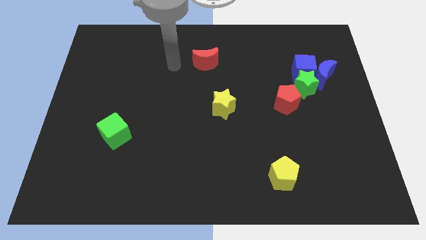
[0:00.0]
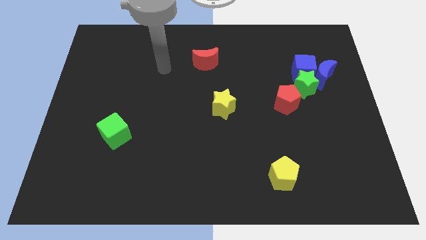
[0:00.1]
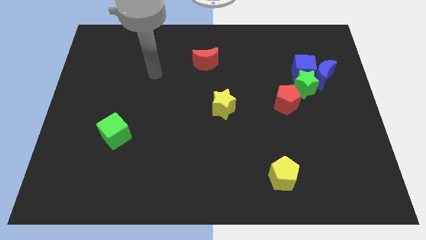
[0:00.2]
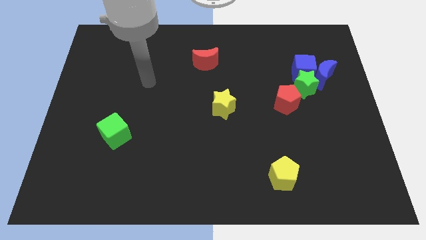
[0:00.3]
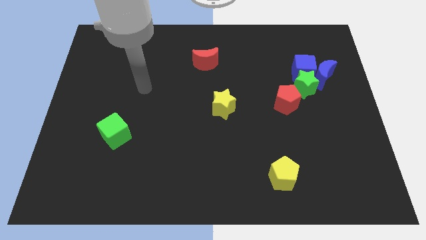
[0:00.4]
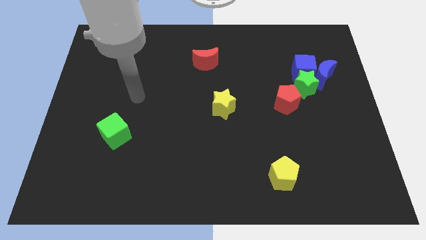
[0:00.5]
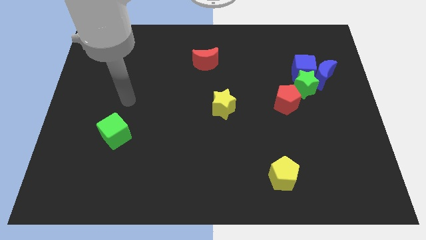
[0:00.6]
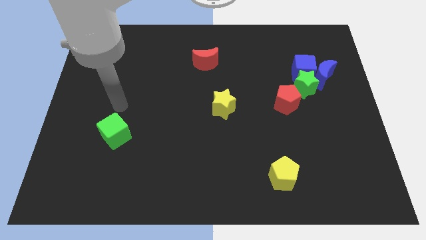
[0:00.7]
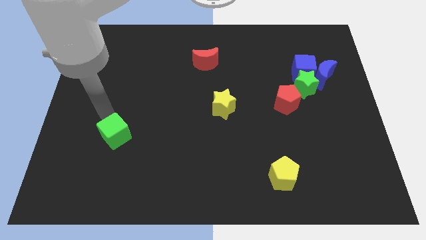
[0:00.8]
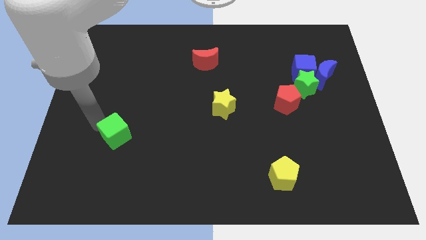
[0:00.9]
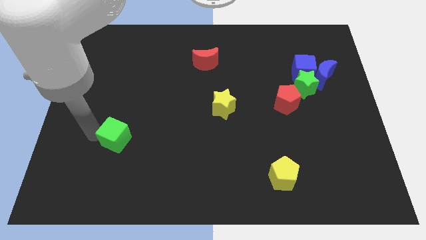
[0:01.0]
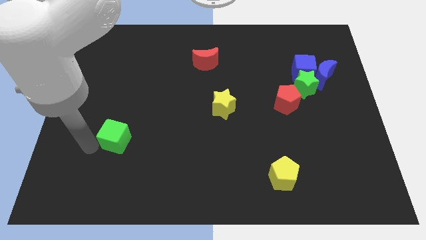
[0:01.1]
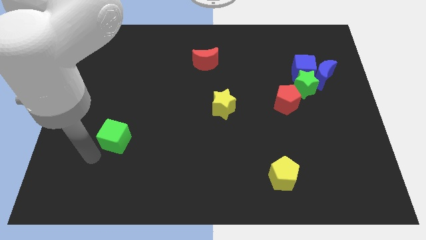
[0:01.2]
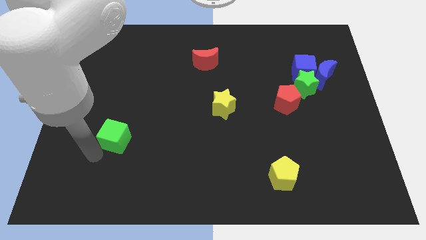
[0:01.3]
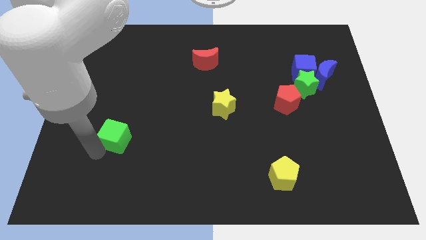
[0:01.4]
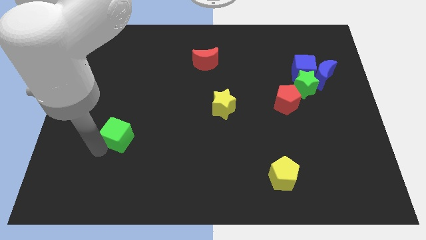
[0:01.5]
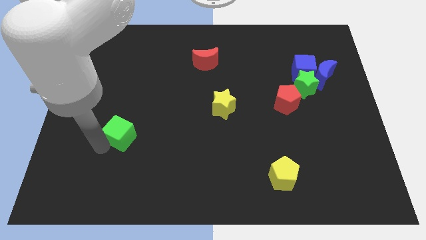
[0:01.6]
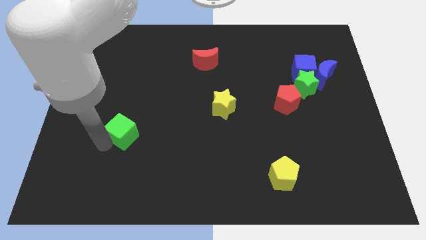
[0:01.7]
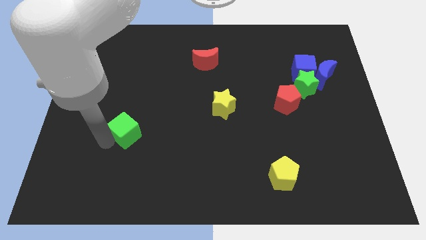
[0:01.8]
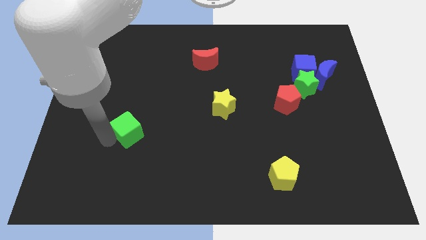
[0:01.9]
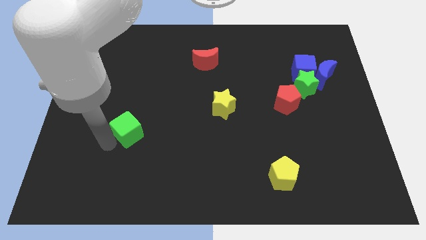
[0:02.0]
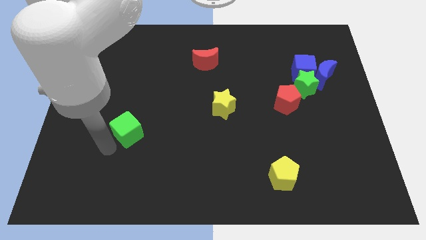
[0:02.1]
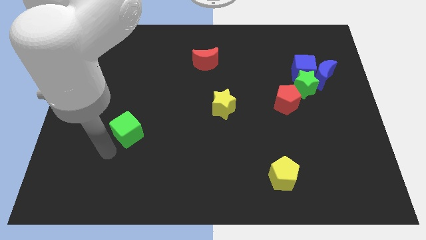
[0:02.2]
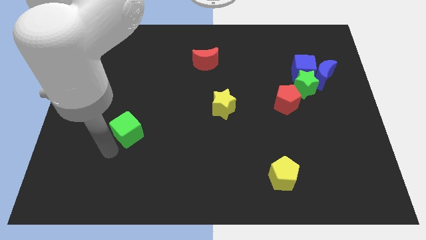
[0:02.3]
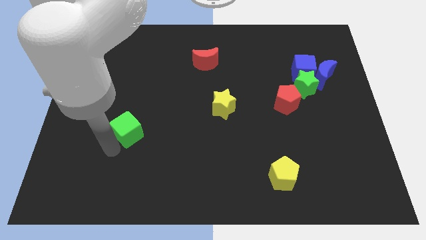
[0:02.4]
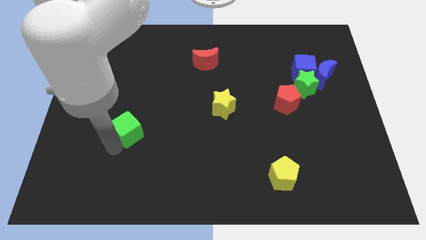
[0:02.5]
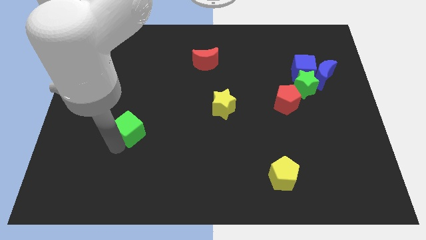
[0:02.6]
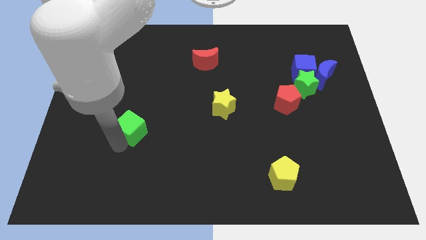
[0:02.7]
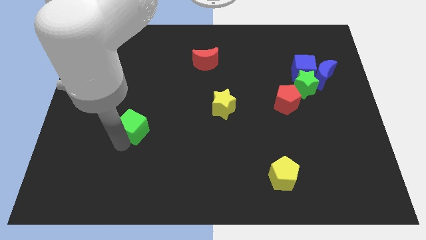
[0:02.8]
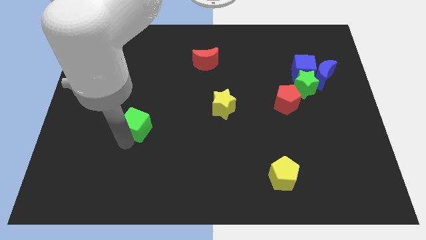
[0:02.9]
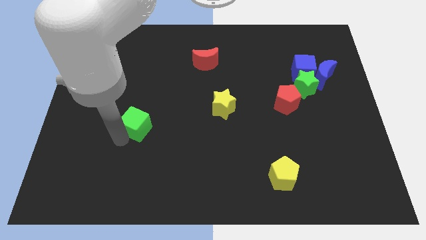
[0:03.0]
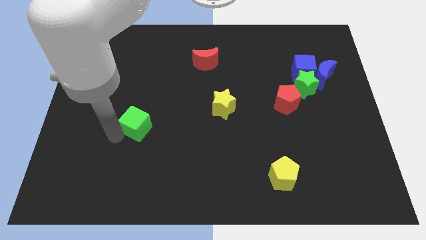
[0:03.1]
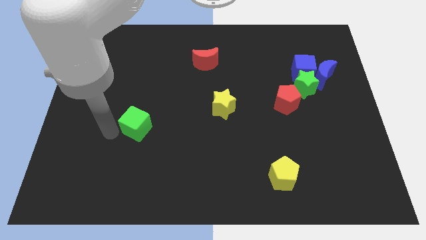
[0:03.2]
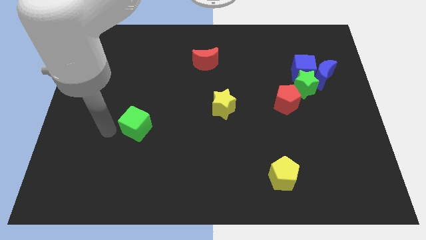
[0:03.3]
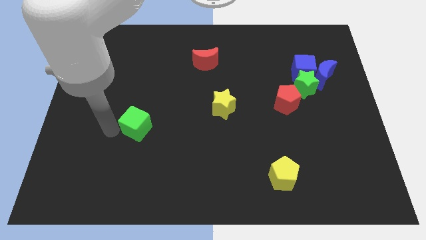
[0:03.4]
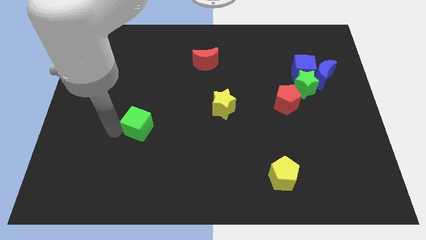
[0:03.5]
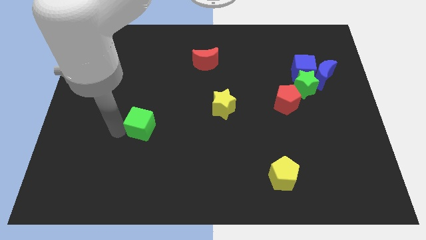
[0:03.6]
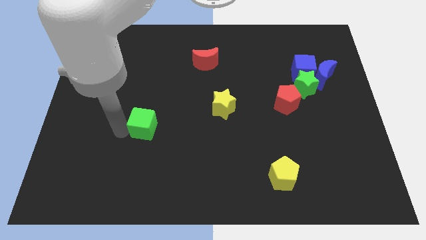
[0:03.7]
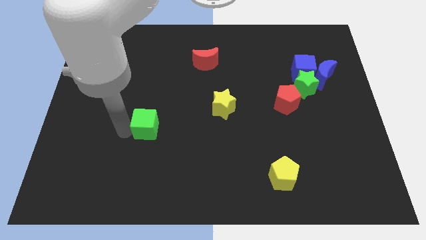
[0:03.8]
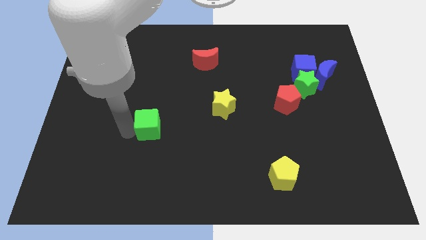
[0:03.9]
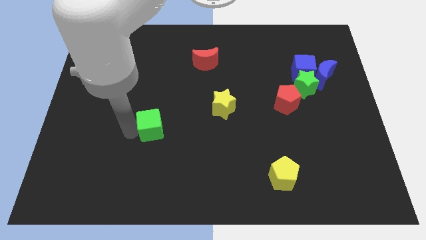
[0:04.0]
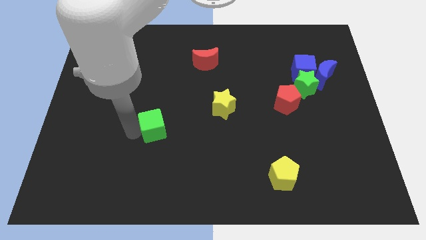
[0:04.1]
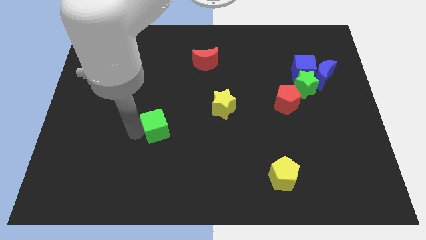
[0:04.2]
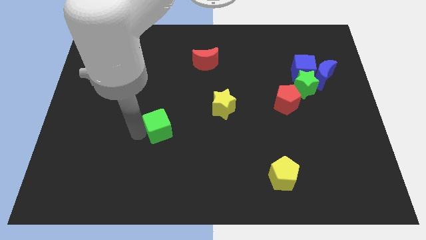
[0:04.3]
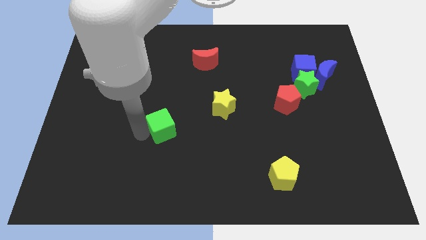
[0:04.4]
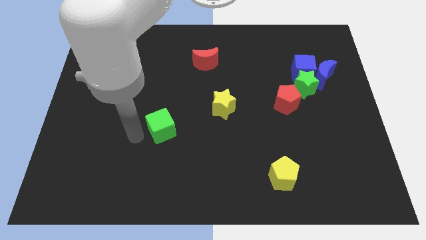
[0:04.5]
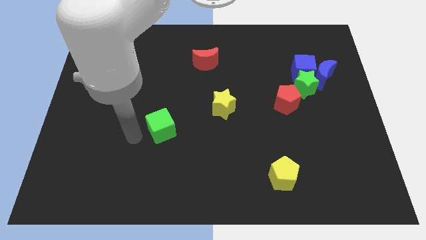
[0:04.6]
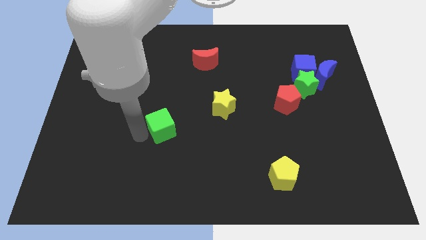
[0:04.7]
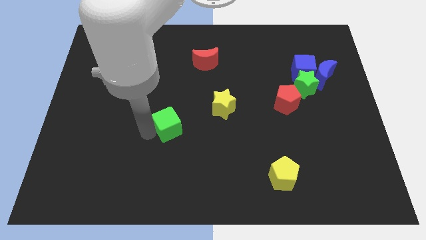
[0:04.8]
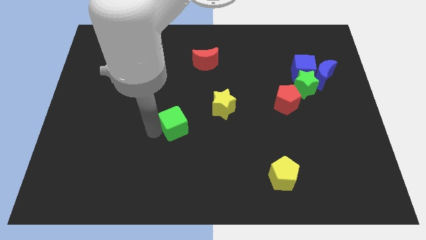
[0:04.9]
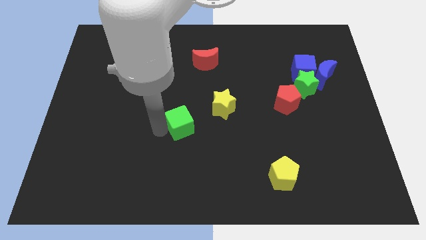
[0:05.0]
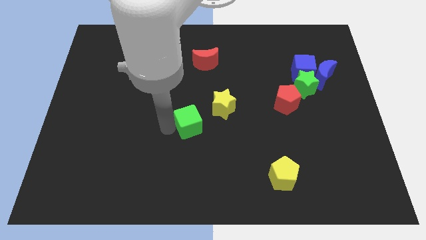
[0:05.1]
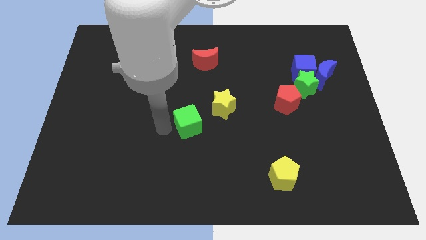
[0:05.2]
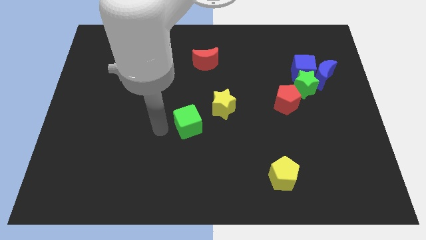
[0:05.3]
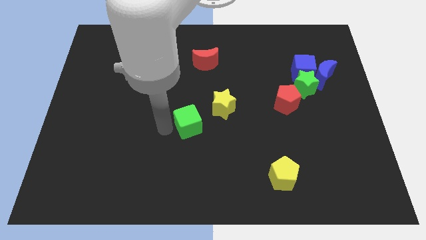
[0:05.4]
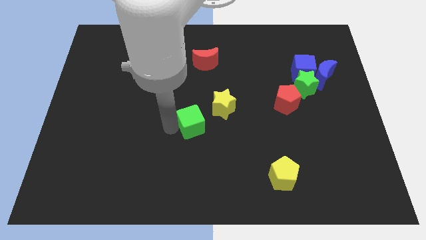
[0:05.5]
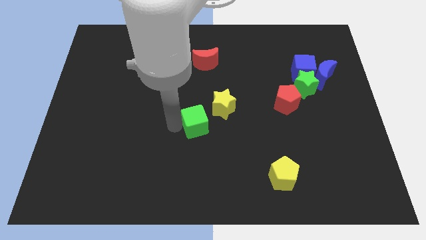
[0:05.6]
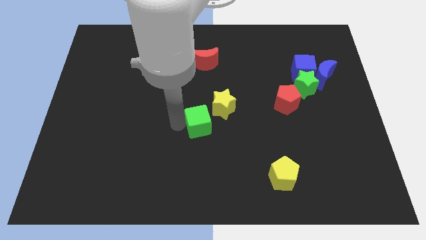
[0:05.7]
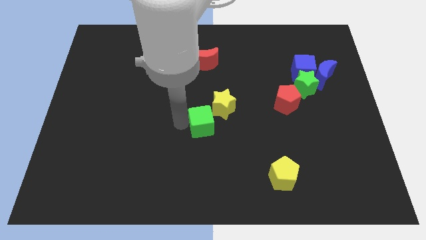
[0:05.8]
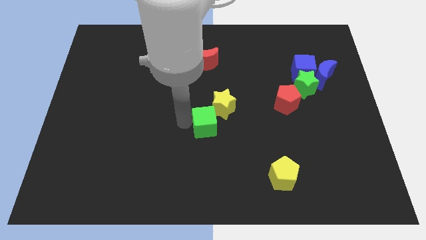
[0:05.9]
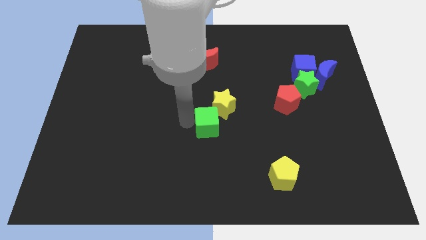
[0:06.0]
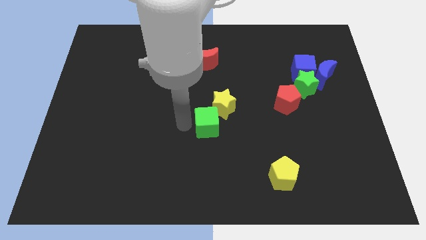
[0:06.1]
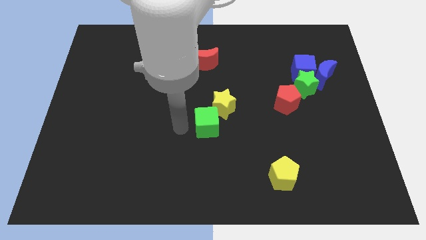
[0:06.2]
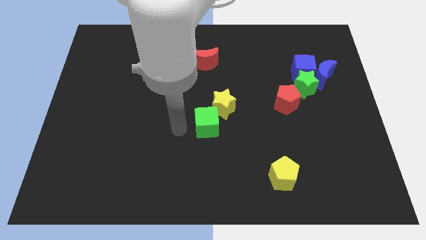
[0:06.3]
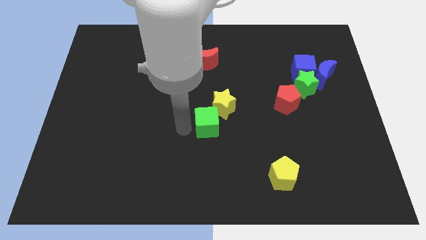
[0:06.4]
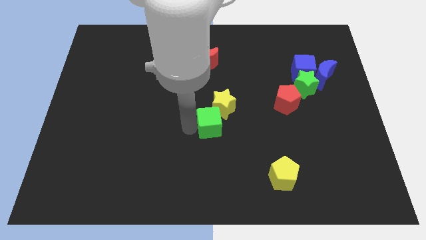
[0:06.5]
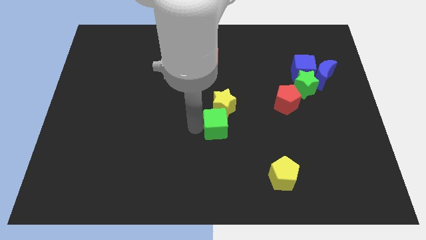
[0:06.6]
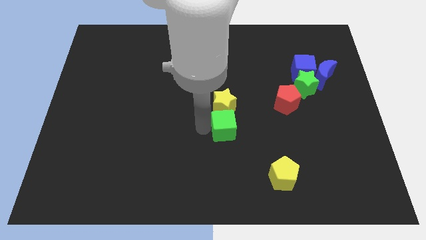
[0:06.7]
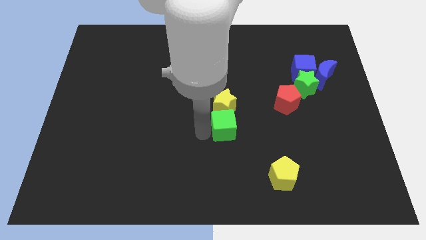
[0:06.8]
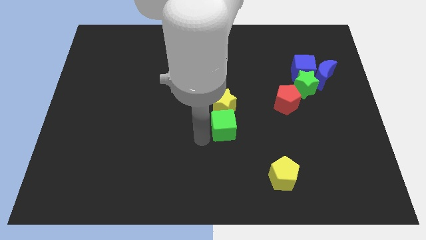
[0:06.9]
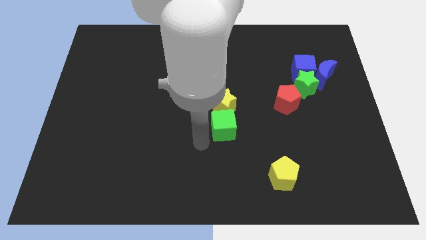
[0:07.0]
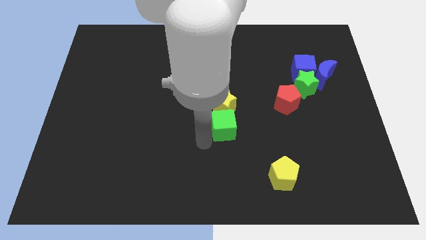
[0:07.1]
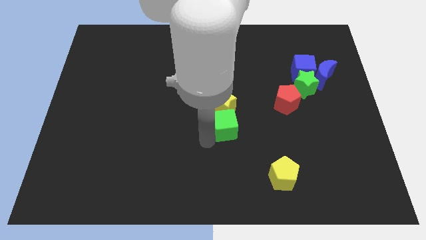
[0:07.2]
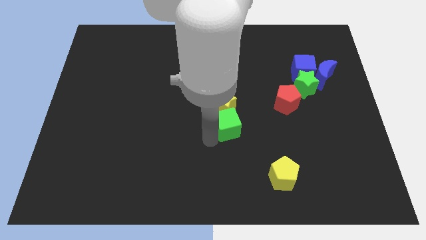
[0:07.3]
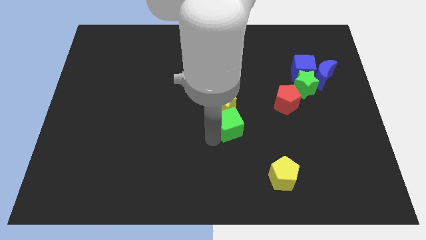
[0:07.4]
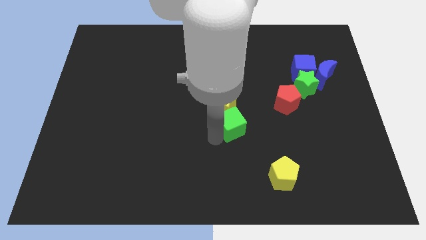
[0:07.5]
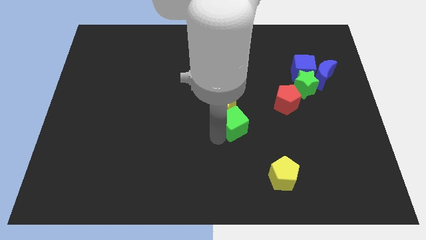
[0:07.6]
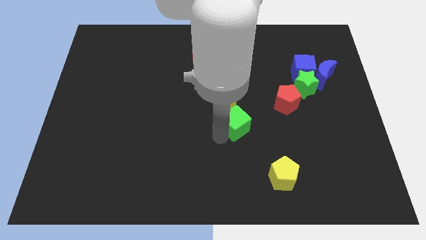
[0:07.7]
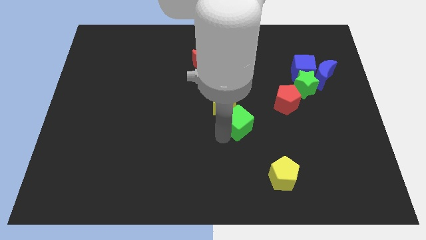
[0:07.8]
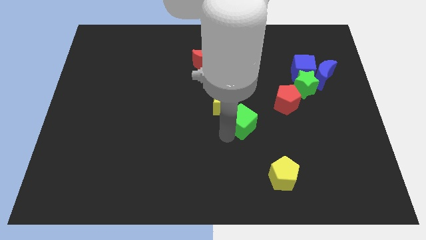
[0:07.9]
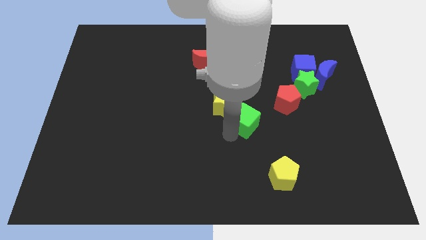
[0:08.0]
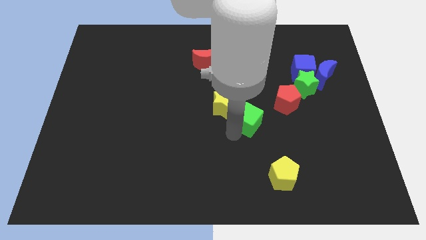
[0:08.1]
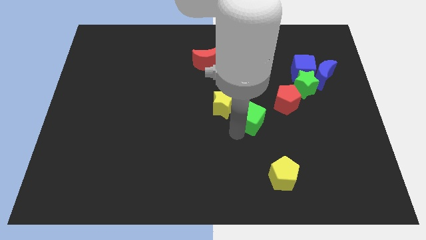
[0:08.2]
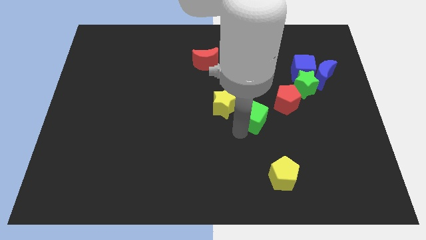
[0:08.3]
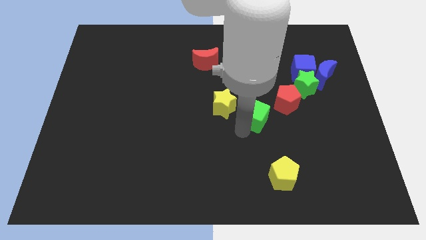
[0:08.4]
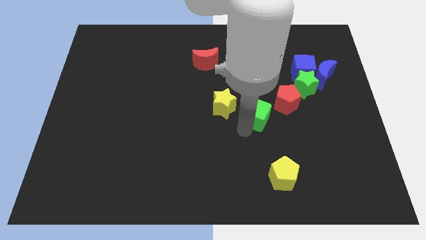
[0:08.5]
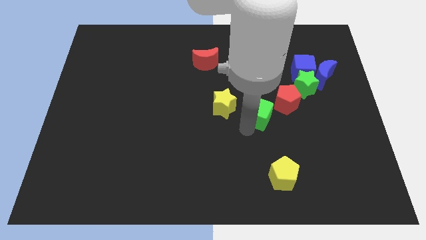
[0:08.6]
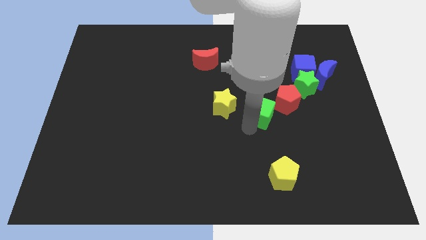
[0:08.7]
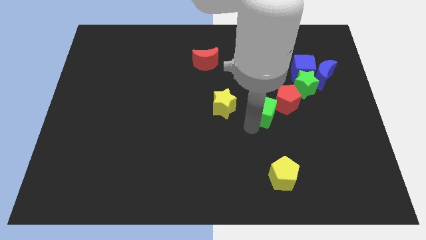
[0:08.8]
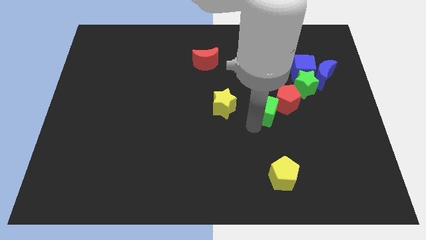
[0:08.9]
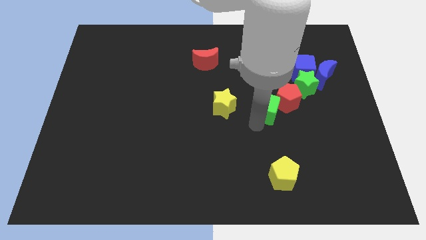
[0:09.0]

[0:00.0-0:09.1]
push the green cube close to the red pentagon
